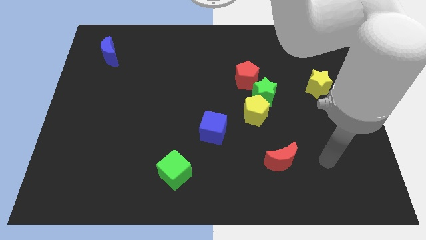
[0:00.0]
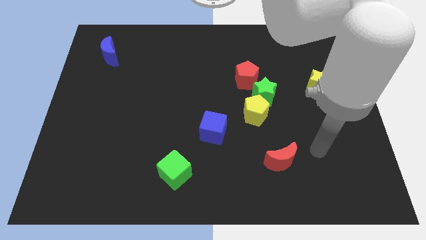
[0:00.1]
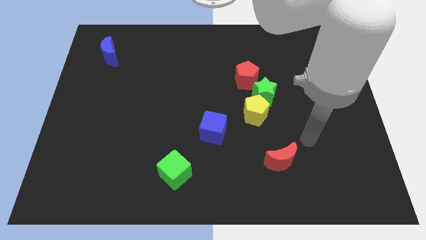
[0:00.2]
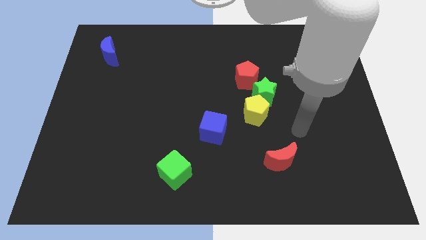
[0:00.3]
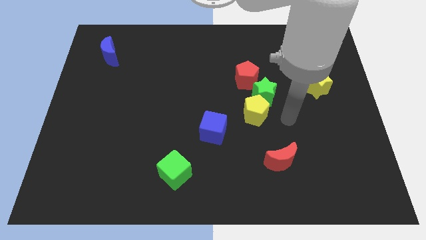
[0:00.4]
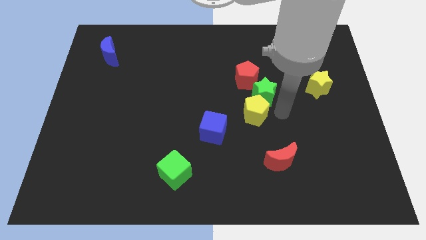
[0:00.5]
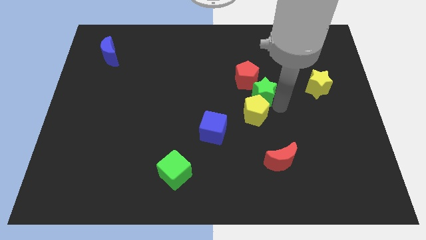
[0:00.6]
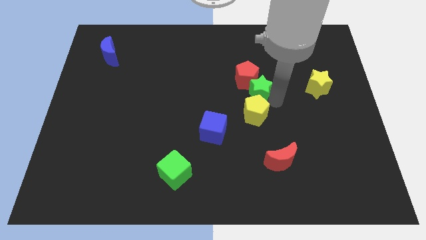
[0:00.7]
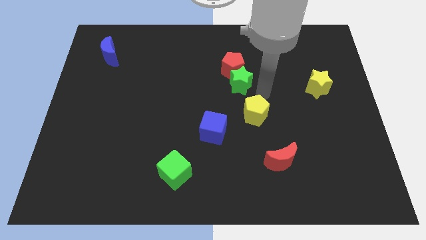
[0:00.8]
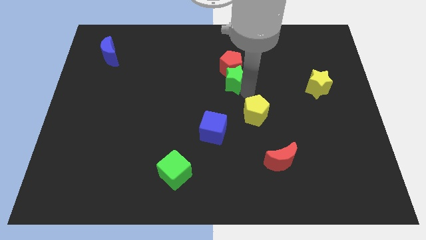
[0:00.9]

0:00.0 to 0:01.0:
pull the yellow pentagon apart from the green star

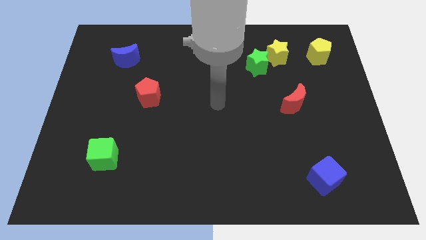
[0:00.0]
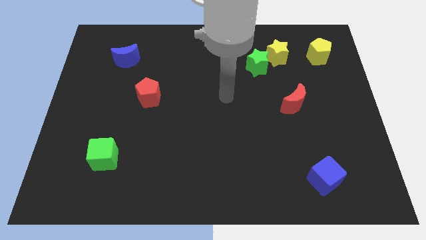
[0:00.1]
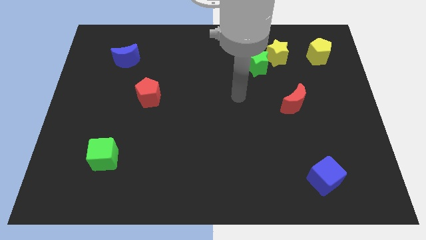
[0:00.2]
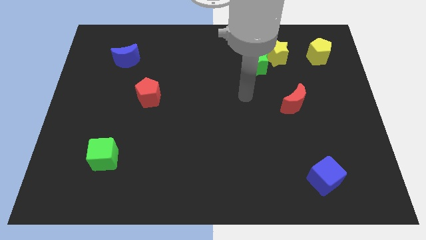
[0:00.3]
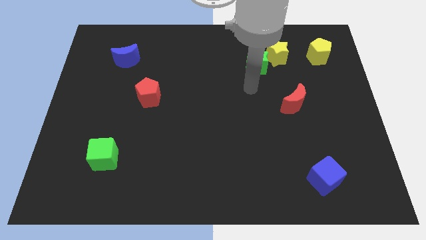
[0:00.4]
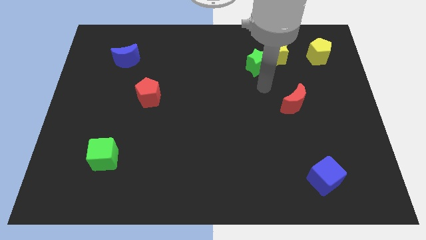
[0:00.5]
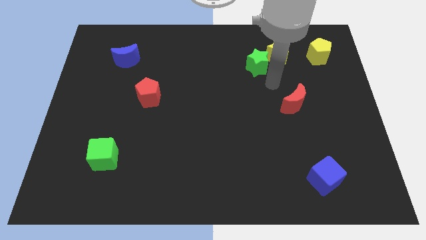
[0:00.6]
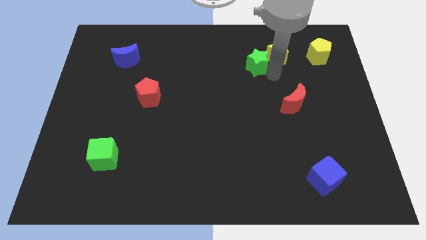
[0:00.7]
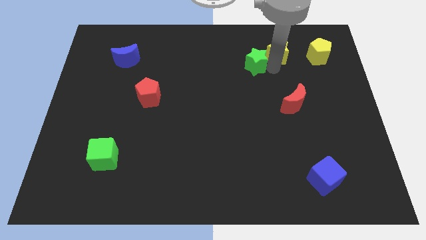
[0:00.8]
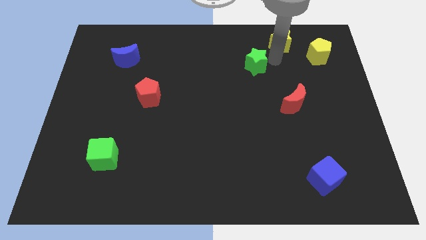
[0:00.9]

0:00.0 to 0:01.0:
move the green star away from the yellow star

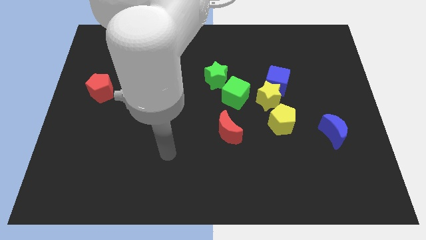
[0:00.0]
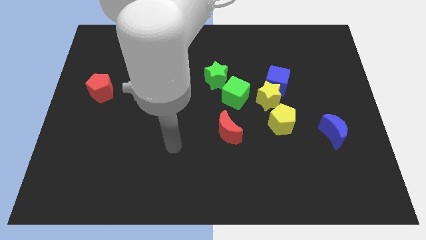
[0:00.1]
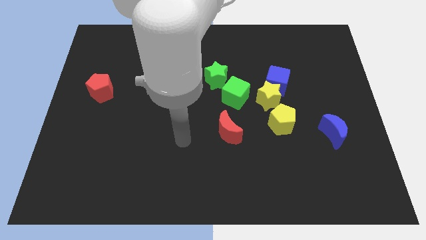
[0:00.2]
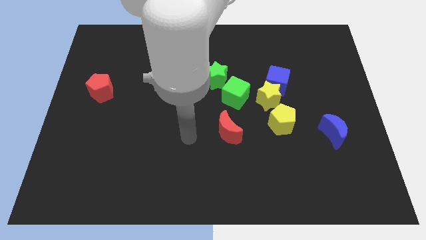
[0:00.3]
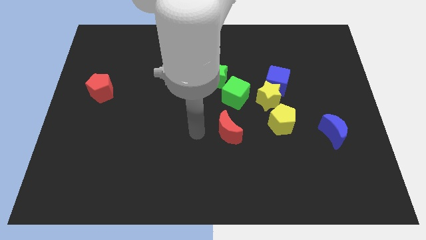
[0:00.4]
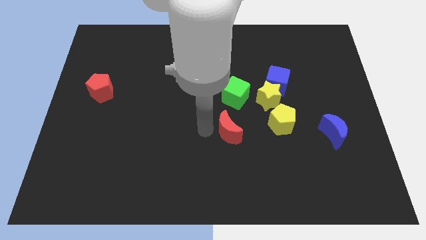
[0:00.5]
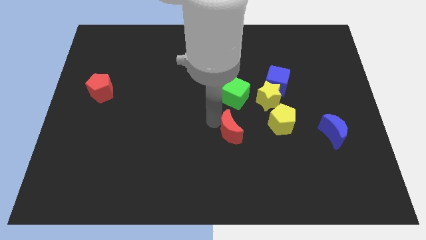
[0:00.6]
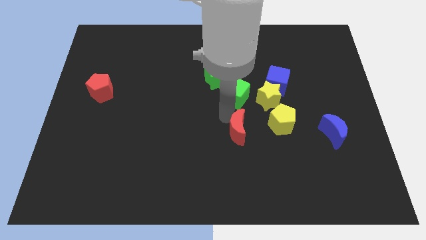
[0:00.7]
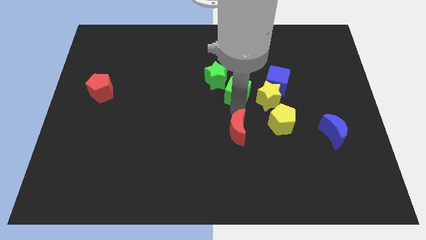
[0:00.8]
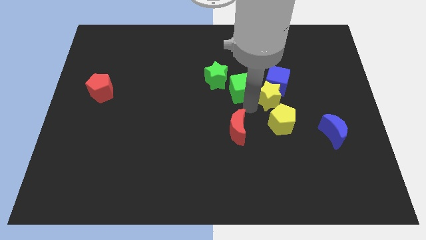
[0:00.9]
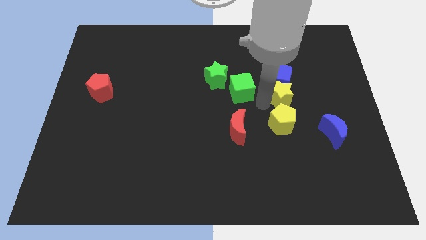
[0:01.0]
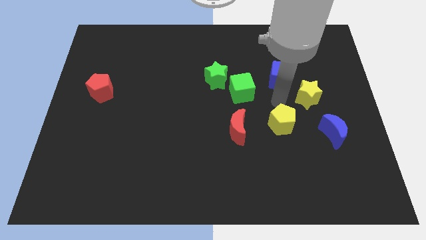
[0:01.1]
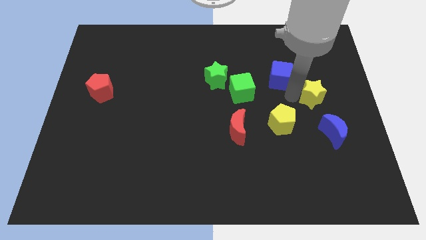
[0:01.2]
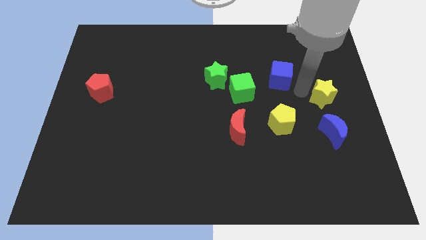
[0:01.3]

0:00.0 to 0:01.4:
move the blue cube away from the yellow star

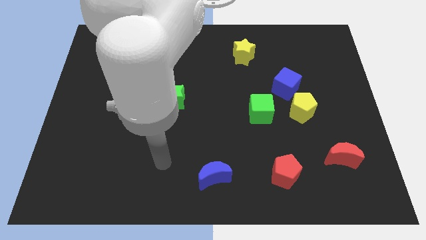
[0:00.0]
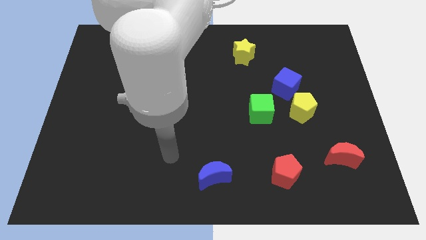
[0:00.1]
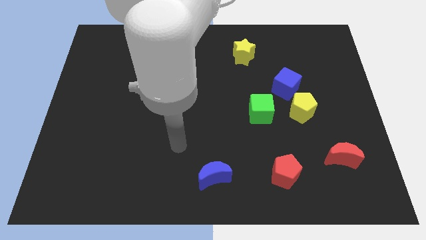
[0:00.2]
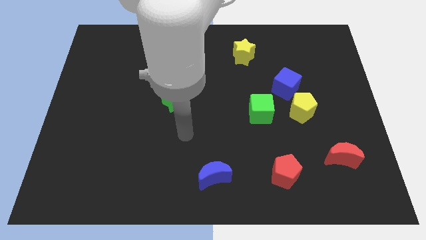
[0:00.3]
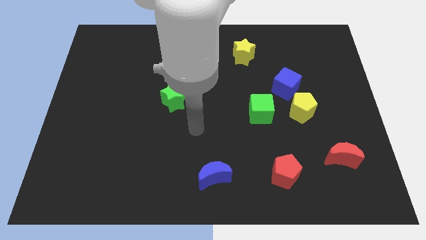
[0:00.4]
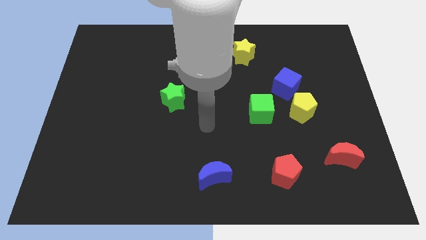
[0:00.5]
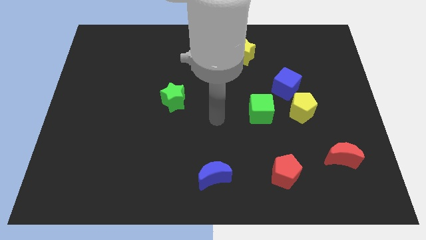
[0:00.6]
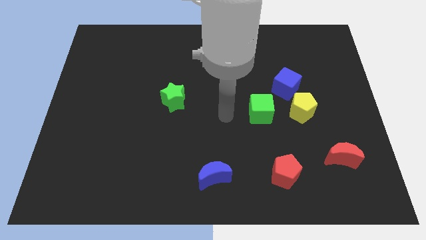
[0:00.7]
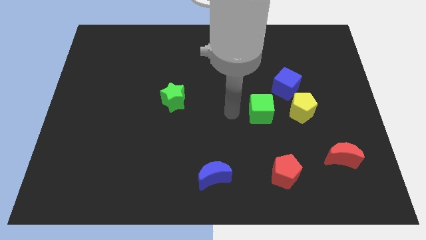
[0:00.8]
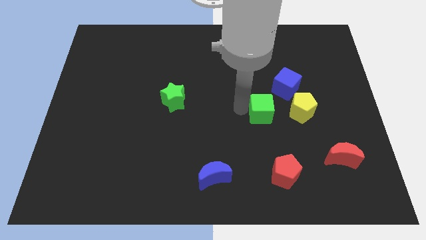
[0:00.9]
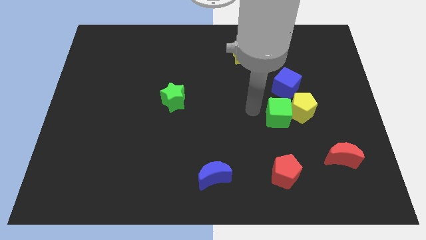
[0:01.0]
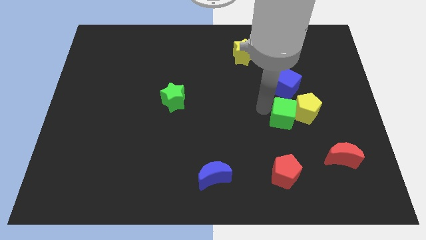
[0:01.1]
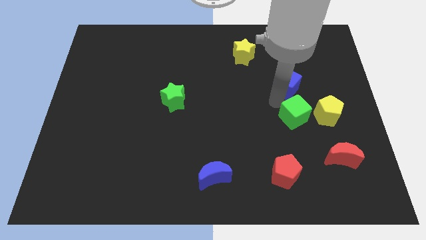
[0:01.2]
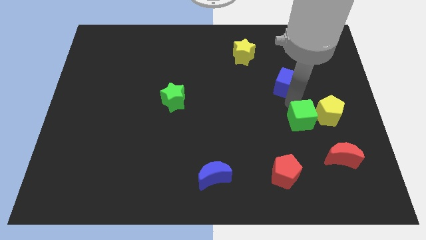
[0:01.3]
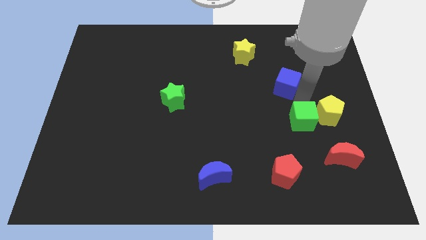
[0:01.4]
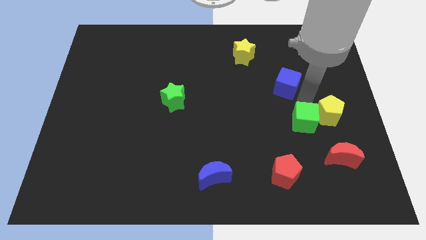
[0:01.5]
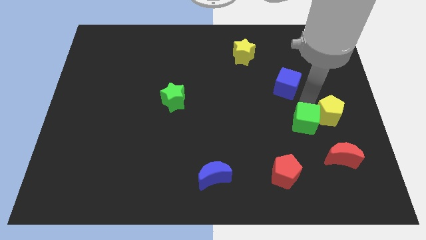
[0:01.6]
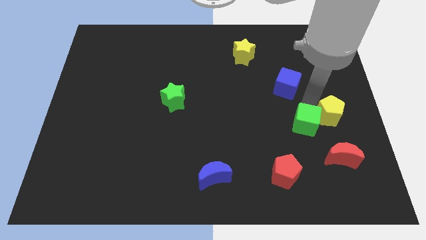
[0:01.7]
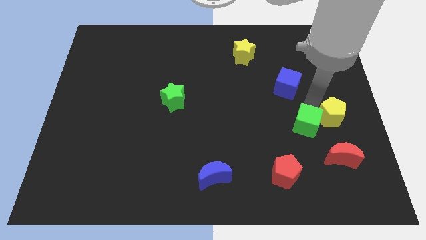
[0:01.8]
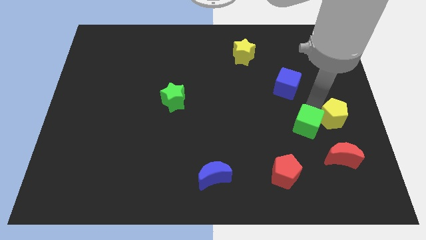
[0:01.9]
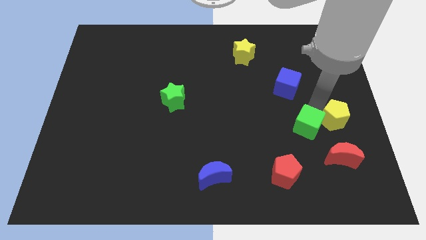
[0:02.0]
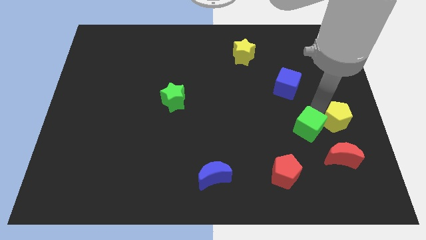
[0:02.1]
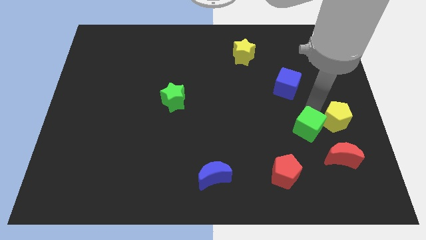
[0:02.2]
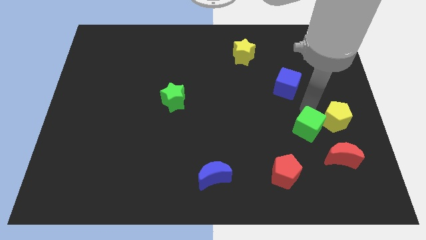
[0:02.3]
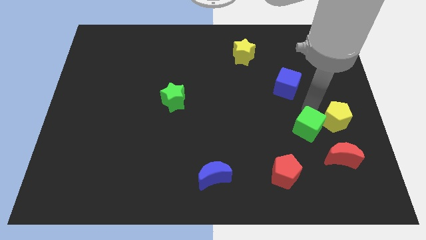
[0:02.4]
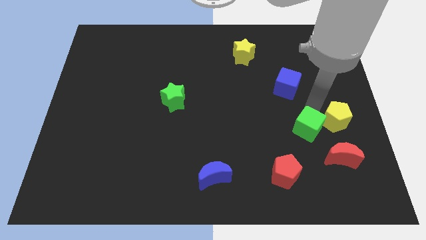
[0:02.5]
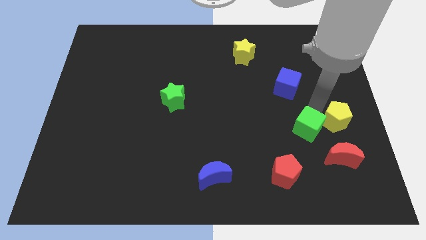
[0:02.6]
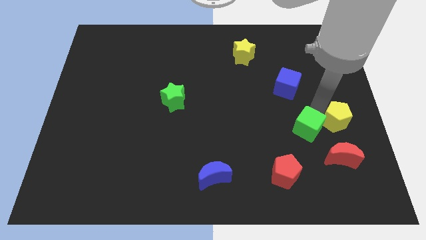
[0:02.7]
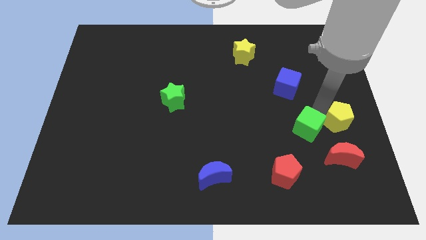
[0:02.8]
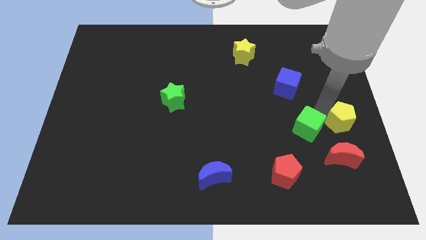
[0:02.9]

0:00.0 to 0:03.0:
separate the yellow pentagon from the blue cube and green cube

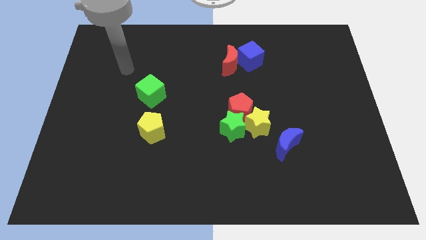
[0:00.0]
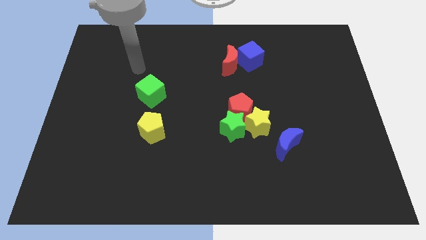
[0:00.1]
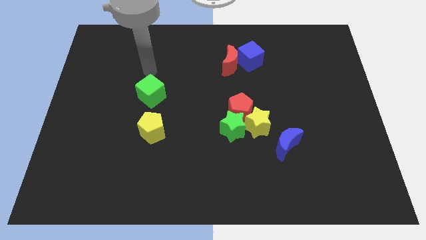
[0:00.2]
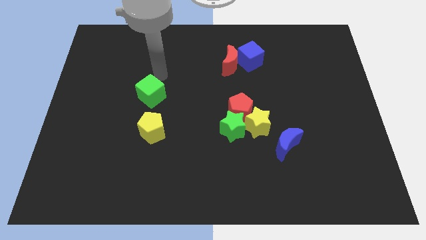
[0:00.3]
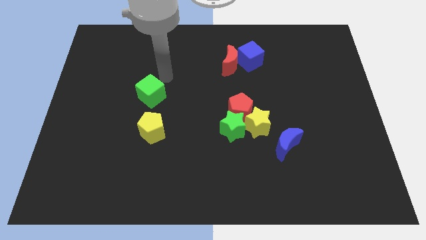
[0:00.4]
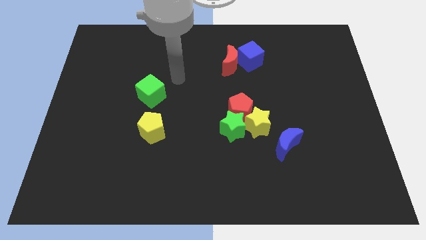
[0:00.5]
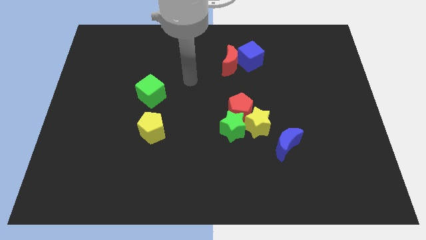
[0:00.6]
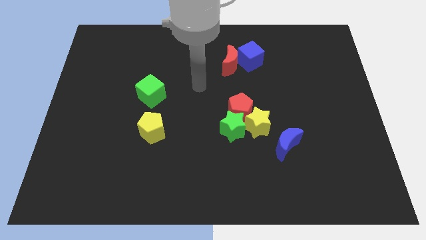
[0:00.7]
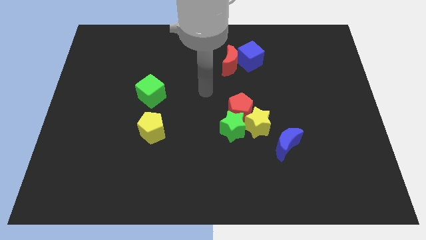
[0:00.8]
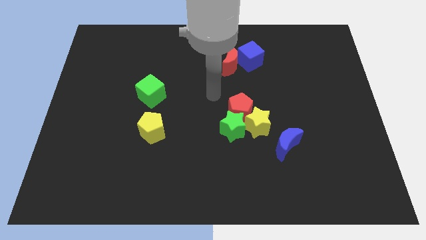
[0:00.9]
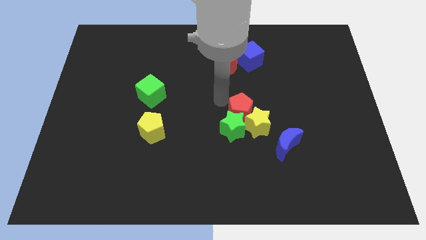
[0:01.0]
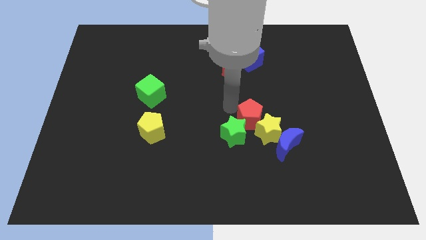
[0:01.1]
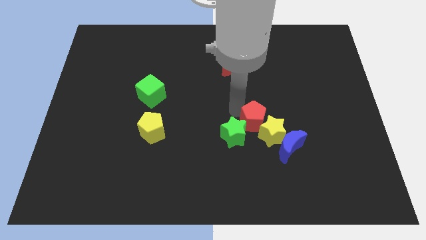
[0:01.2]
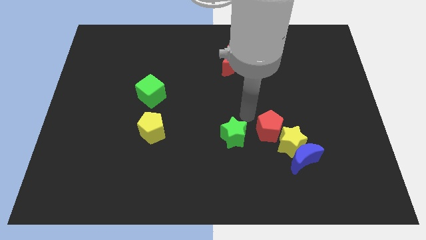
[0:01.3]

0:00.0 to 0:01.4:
move the green star away from the red pentagon and yellow star

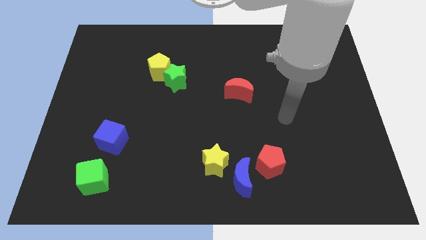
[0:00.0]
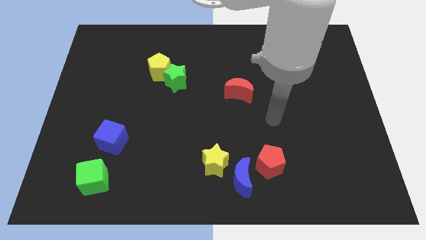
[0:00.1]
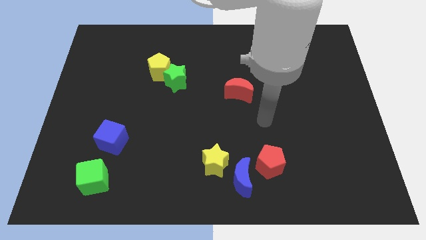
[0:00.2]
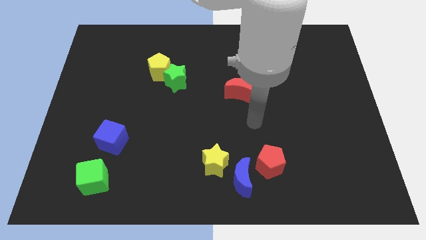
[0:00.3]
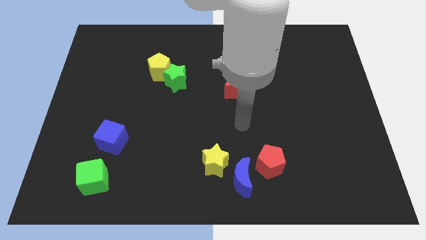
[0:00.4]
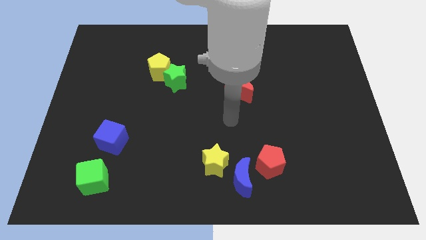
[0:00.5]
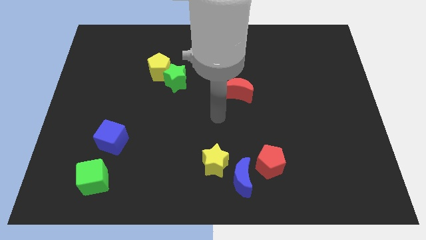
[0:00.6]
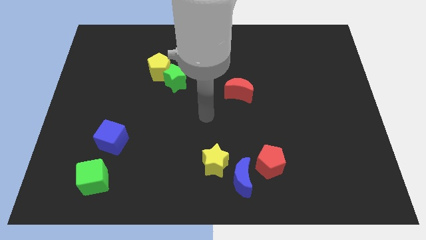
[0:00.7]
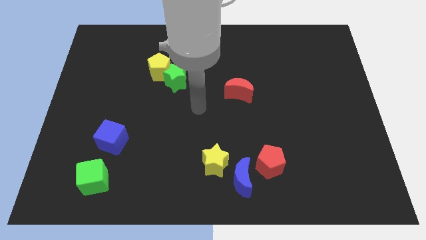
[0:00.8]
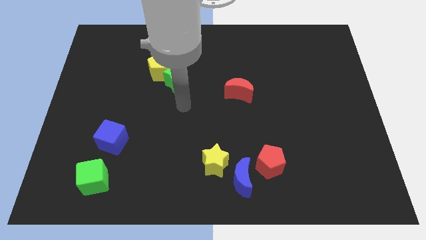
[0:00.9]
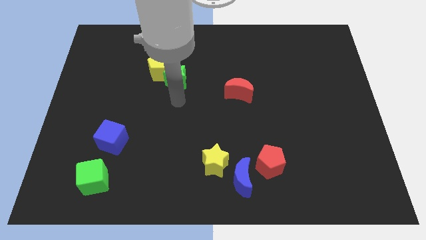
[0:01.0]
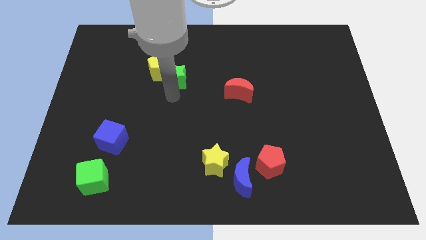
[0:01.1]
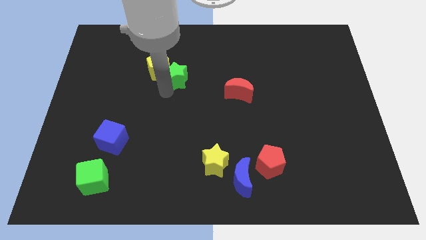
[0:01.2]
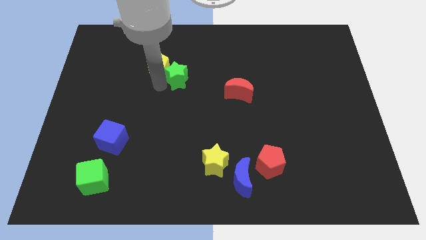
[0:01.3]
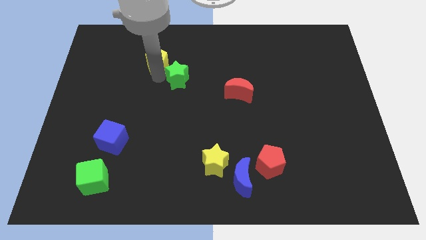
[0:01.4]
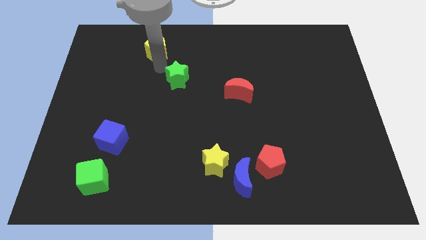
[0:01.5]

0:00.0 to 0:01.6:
move the green star away from the yellow pentagon
